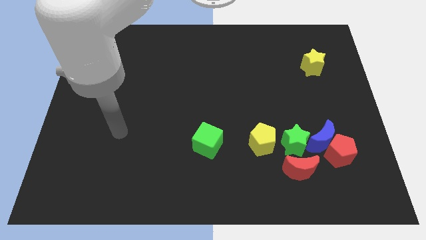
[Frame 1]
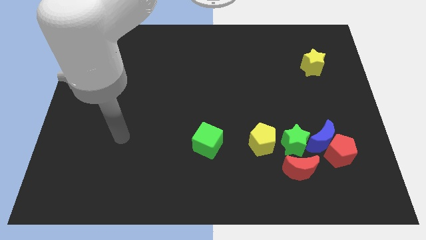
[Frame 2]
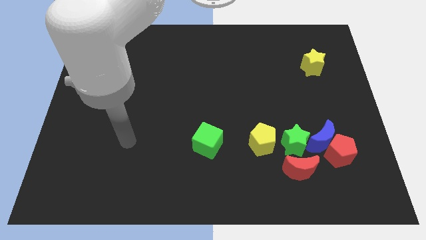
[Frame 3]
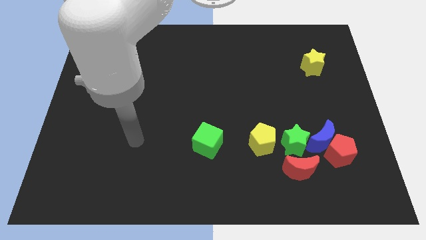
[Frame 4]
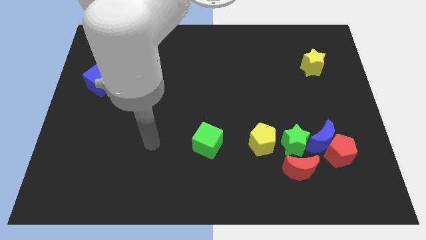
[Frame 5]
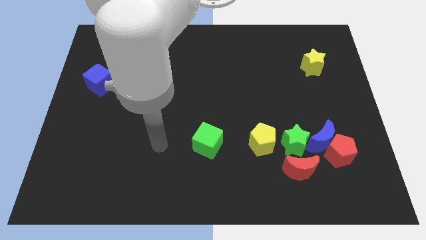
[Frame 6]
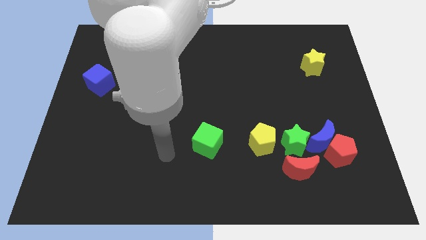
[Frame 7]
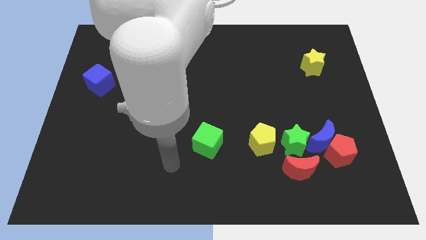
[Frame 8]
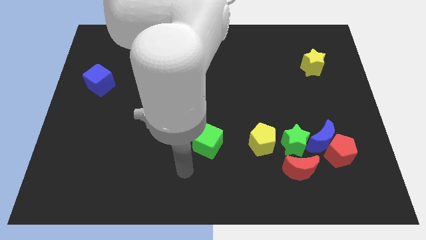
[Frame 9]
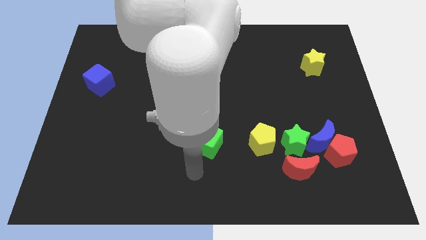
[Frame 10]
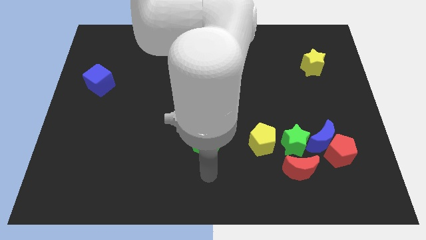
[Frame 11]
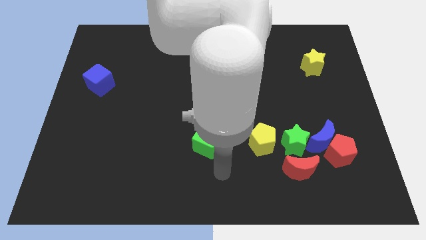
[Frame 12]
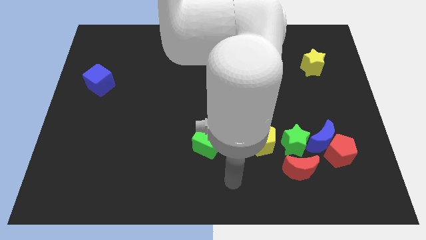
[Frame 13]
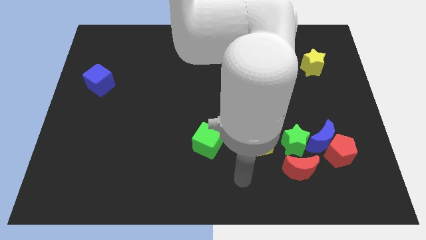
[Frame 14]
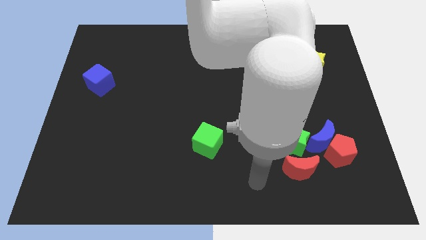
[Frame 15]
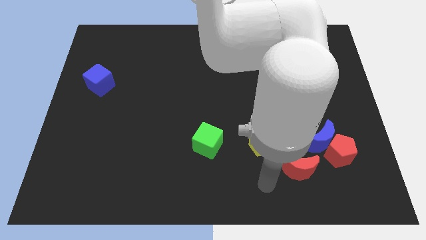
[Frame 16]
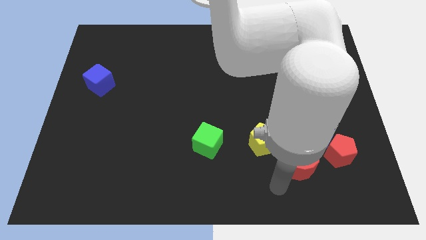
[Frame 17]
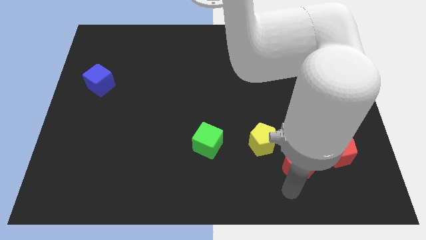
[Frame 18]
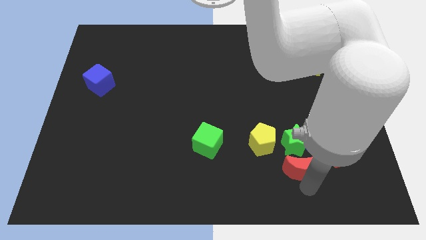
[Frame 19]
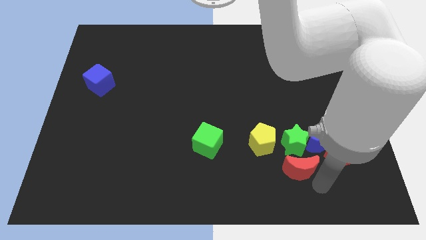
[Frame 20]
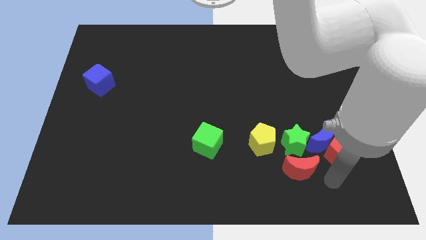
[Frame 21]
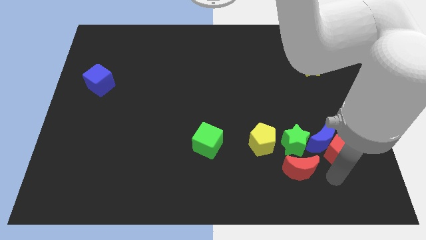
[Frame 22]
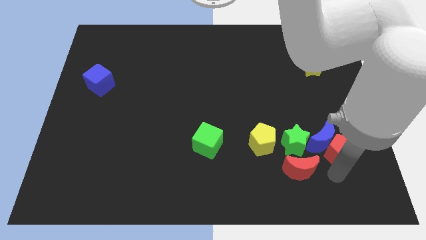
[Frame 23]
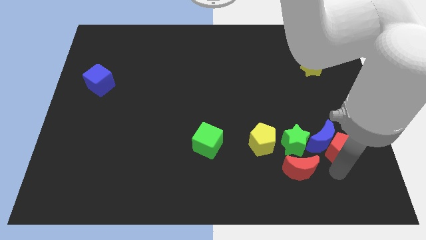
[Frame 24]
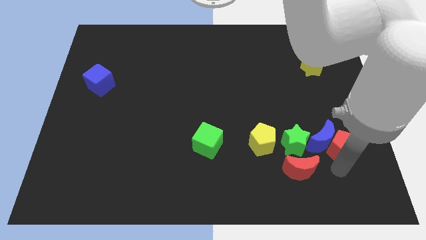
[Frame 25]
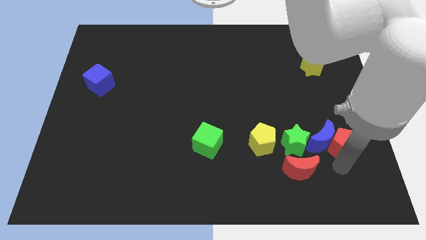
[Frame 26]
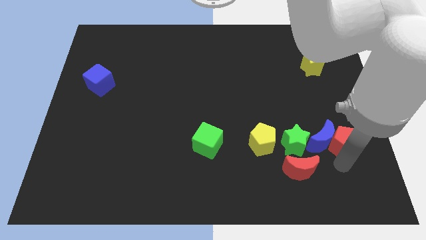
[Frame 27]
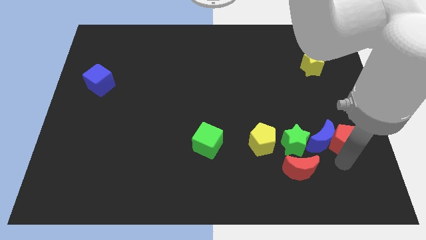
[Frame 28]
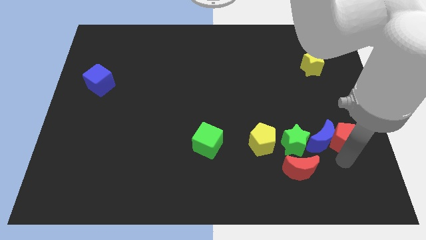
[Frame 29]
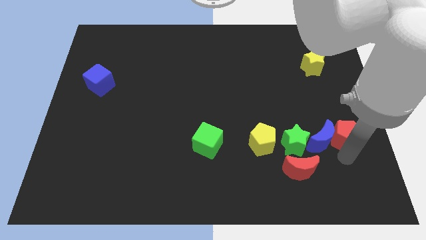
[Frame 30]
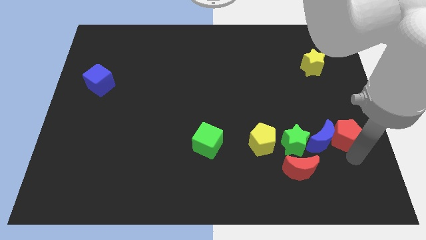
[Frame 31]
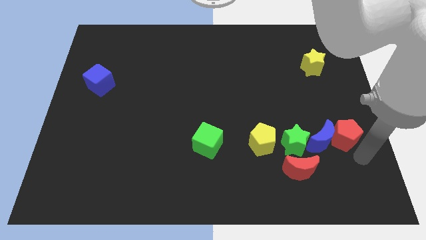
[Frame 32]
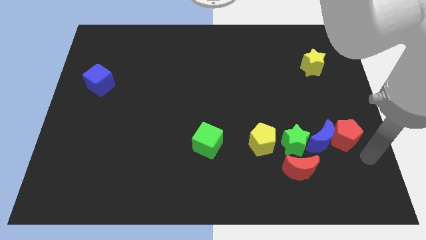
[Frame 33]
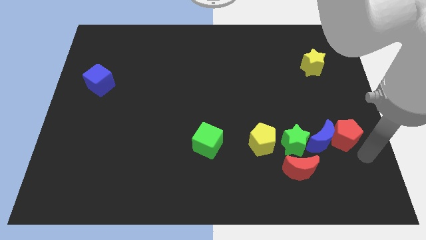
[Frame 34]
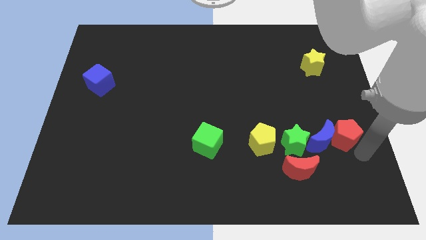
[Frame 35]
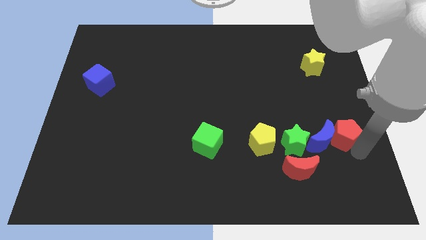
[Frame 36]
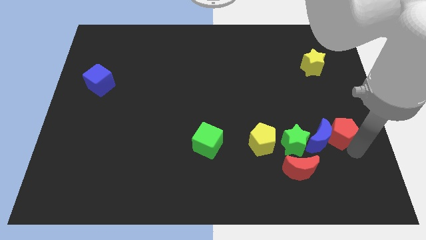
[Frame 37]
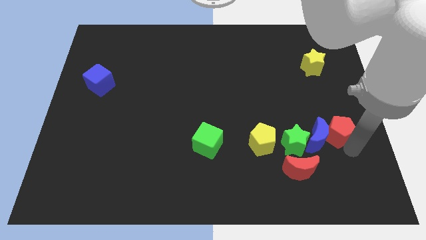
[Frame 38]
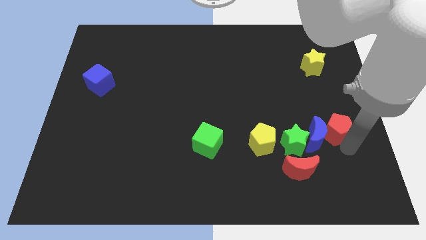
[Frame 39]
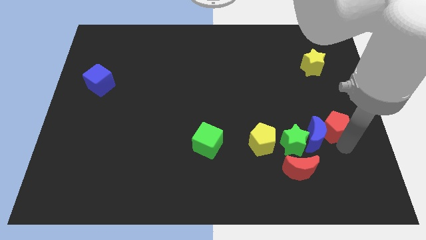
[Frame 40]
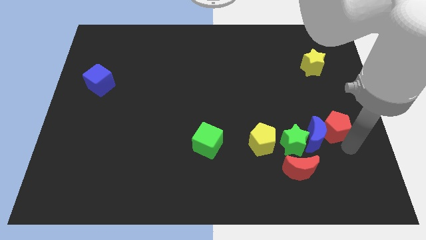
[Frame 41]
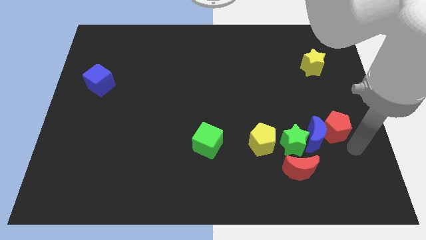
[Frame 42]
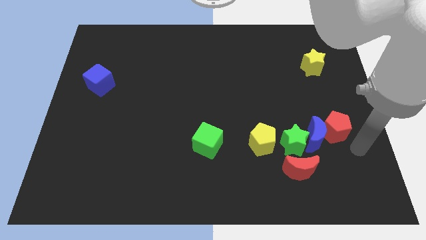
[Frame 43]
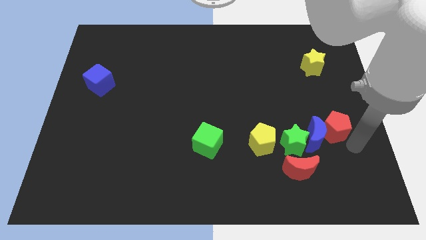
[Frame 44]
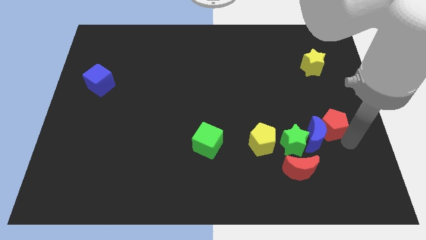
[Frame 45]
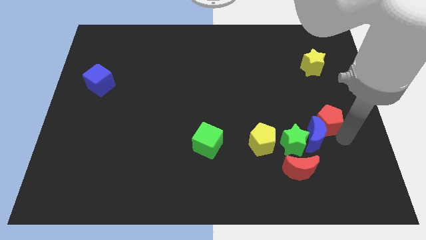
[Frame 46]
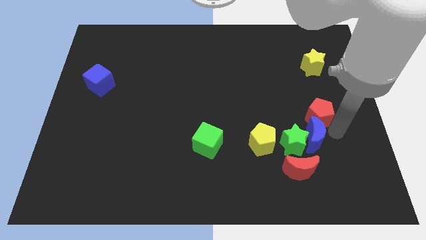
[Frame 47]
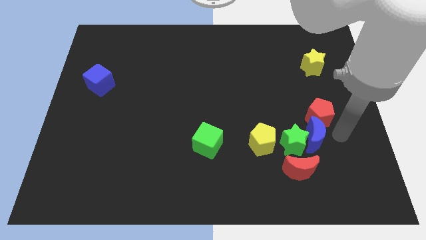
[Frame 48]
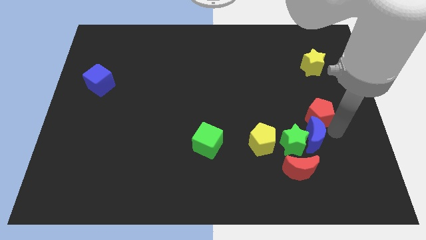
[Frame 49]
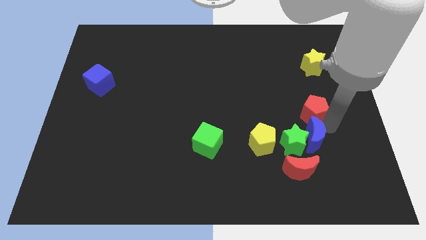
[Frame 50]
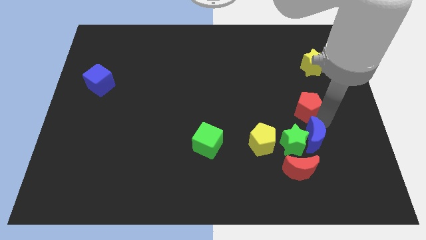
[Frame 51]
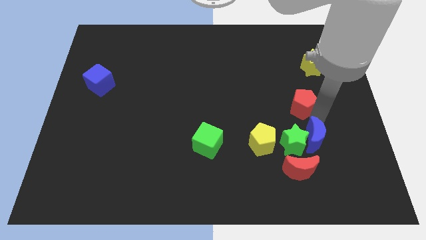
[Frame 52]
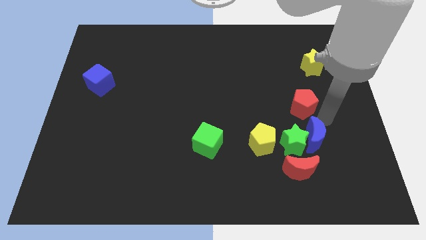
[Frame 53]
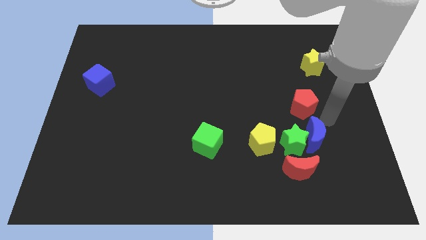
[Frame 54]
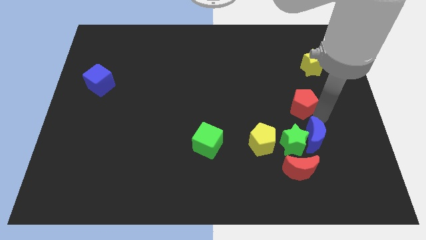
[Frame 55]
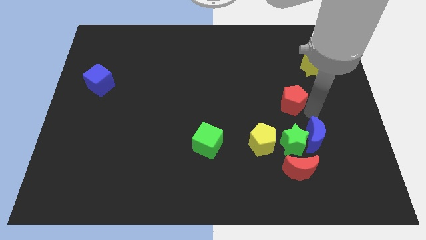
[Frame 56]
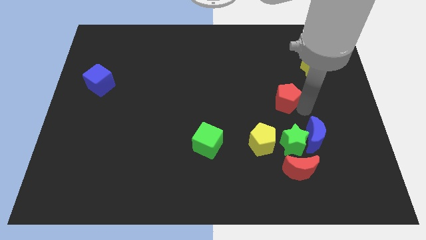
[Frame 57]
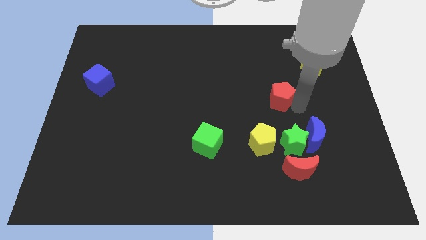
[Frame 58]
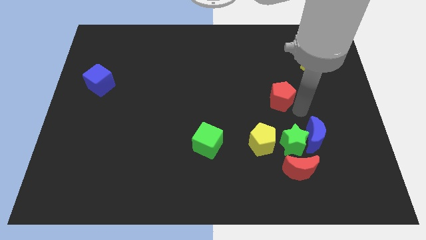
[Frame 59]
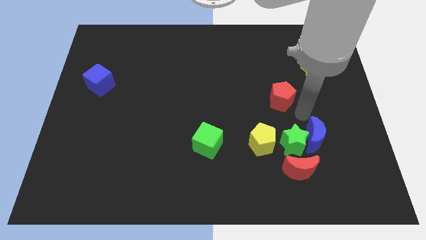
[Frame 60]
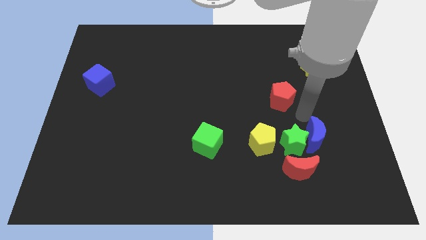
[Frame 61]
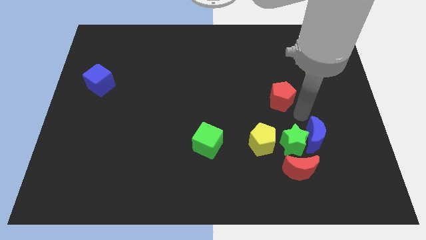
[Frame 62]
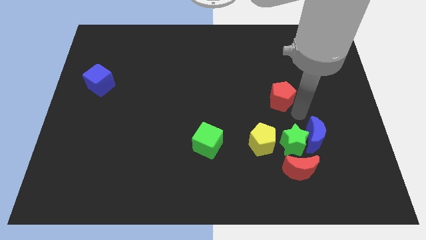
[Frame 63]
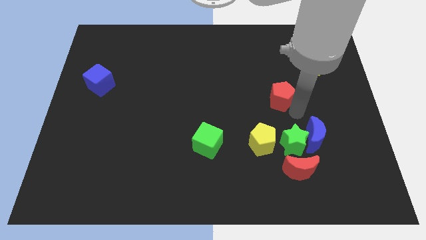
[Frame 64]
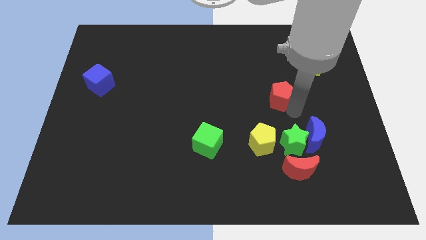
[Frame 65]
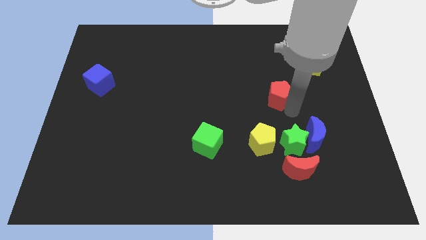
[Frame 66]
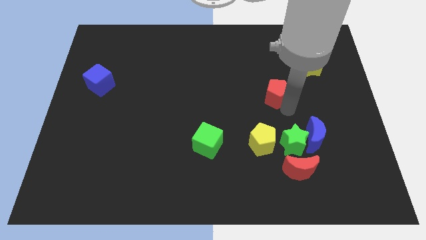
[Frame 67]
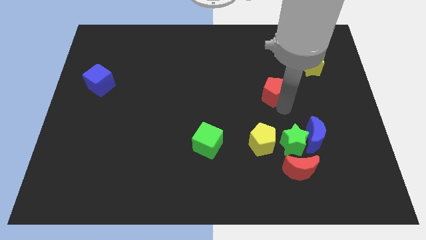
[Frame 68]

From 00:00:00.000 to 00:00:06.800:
slide the red pentagon up and then left

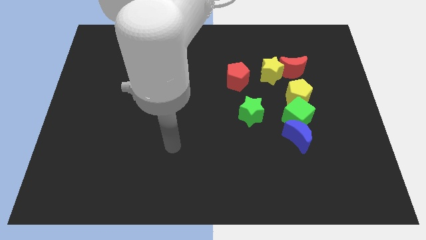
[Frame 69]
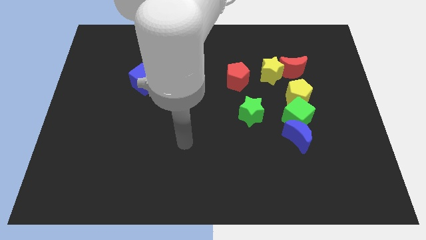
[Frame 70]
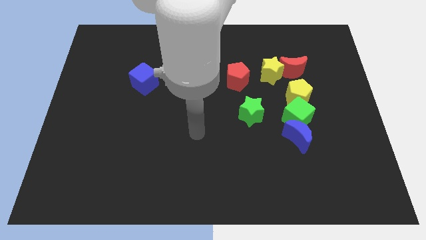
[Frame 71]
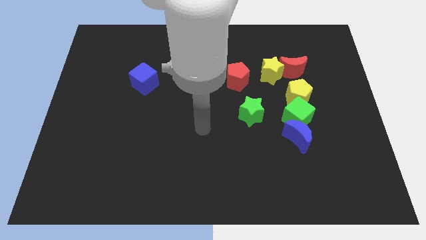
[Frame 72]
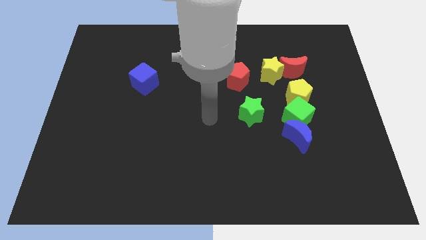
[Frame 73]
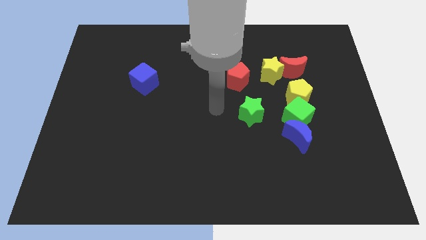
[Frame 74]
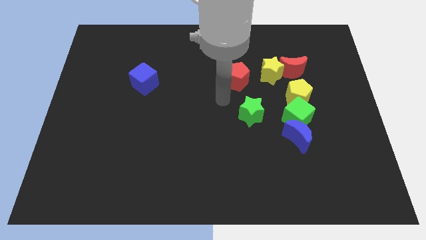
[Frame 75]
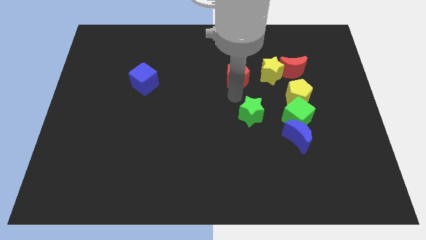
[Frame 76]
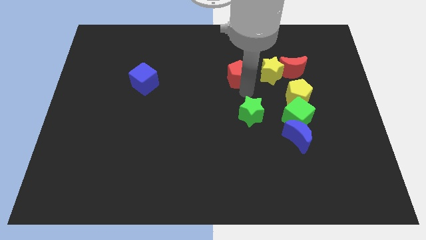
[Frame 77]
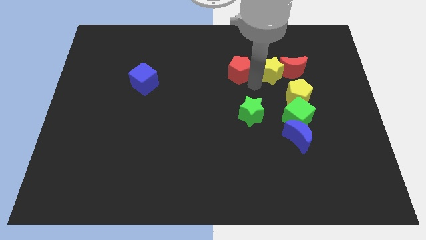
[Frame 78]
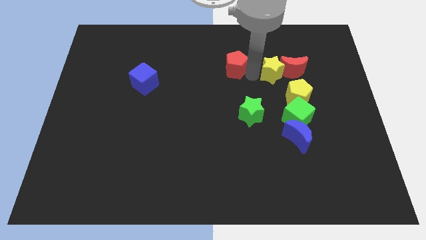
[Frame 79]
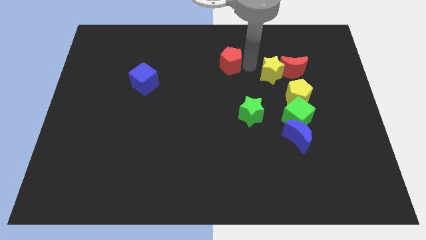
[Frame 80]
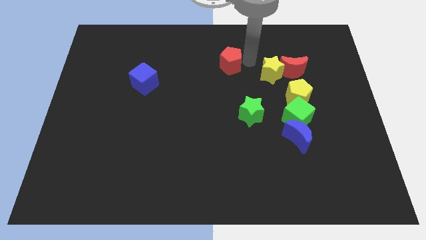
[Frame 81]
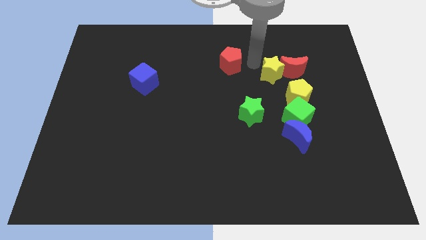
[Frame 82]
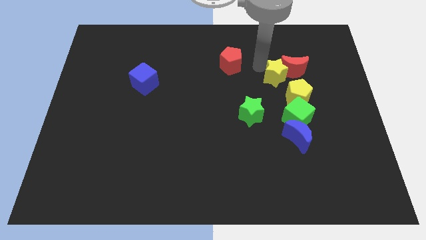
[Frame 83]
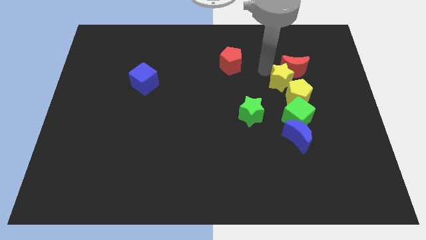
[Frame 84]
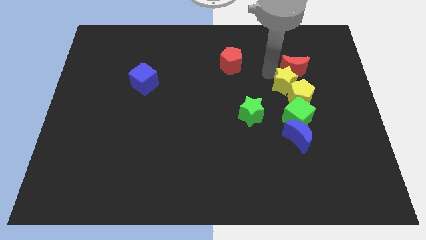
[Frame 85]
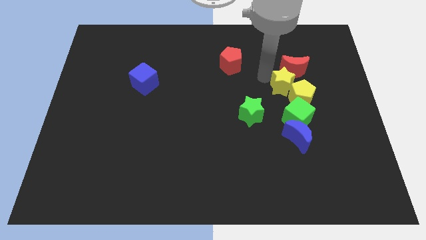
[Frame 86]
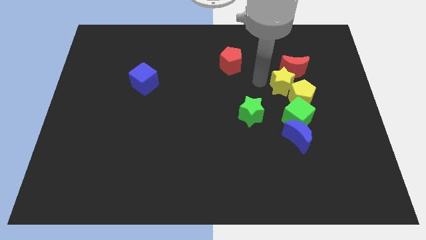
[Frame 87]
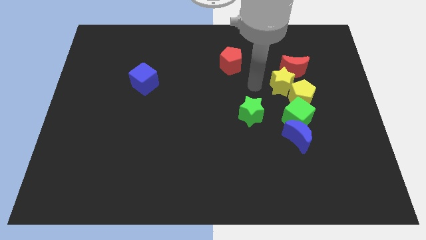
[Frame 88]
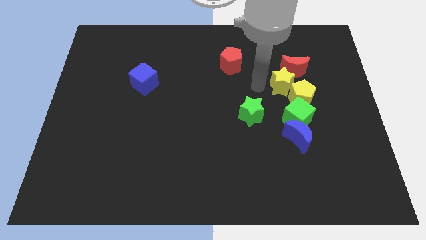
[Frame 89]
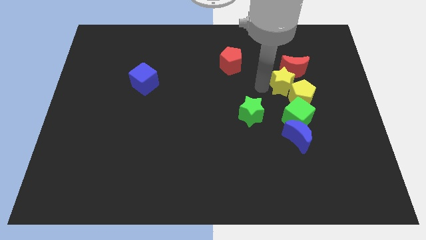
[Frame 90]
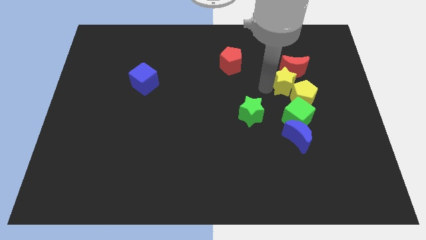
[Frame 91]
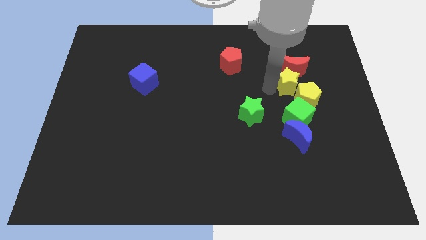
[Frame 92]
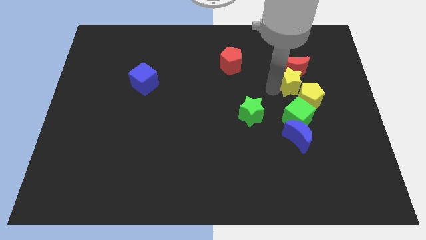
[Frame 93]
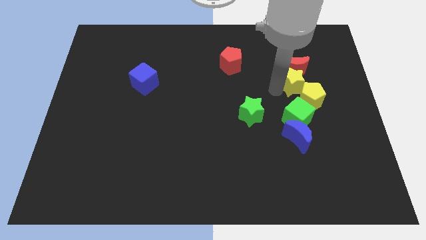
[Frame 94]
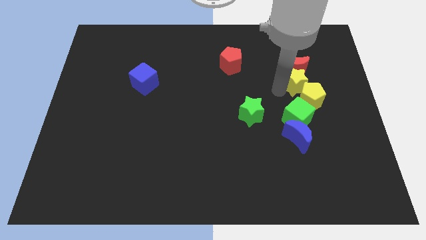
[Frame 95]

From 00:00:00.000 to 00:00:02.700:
move the yellow star down and to the right a little bit
